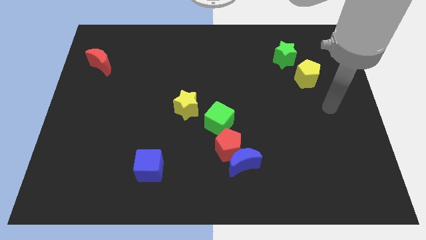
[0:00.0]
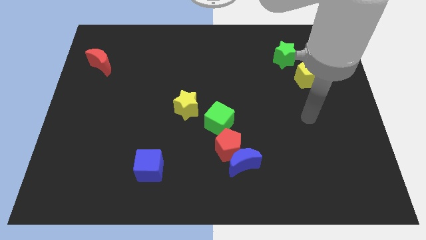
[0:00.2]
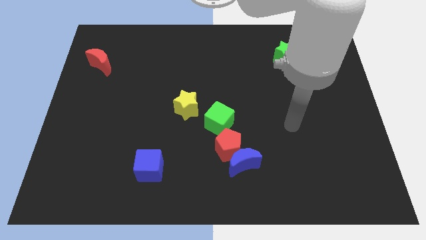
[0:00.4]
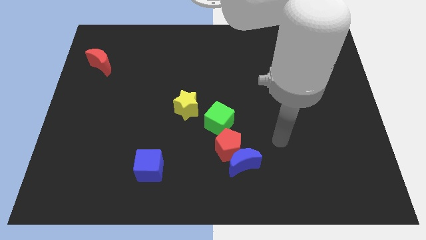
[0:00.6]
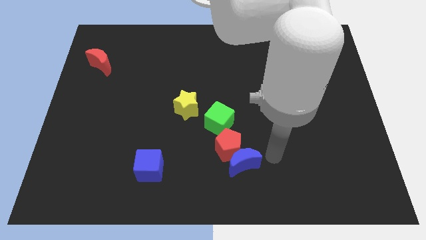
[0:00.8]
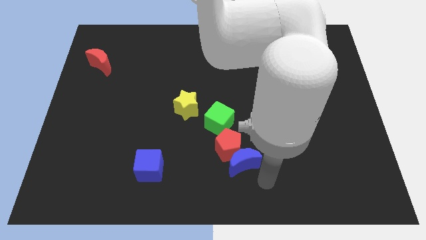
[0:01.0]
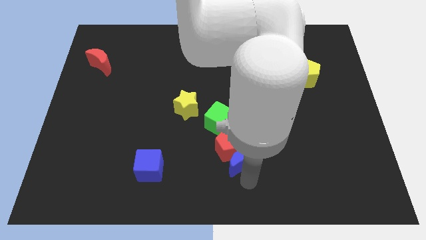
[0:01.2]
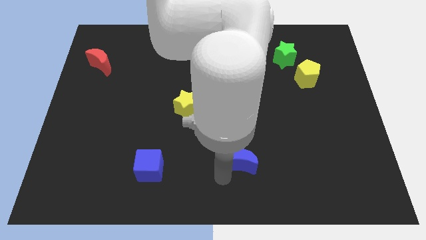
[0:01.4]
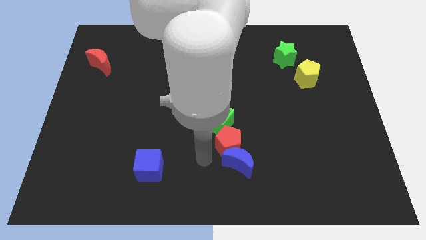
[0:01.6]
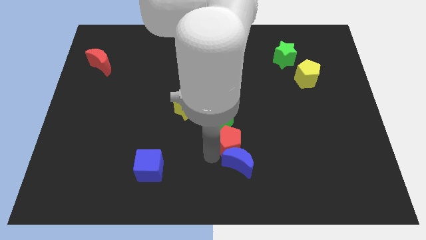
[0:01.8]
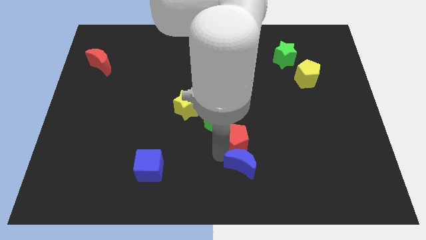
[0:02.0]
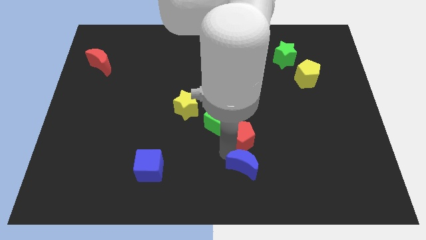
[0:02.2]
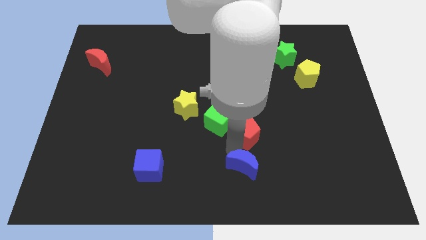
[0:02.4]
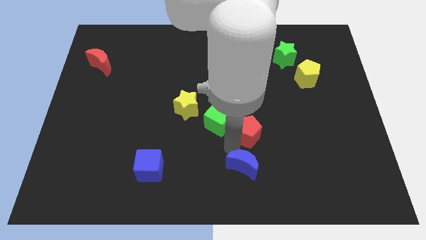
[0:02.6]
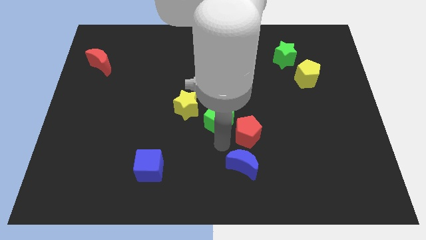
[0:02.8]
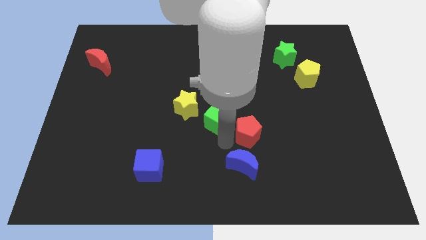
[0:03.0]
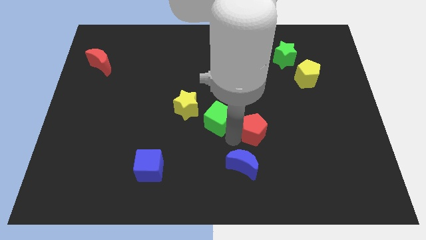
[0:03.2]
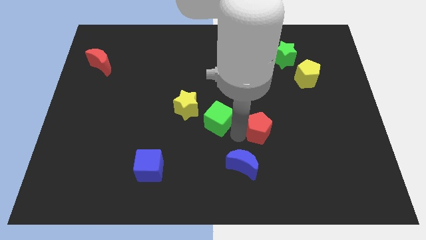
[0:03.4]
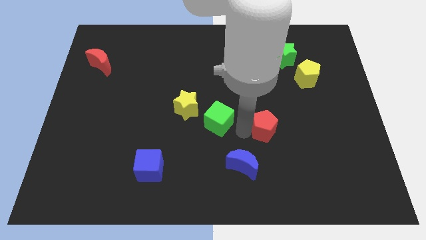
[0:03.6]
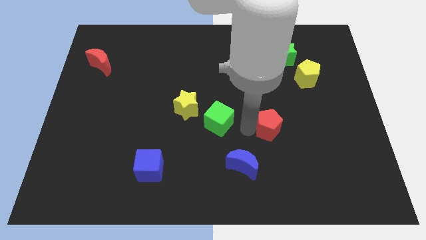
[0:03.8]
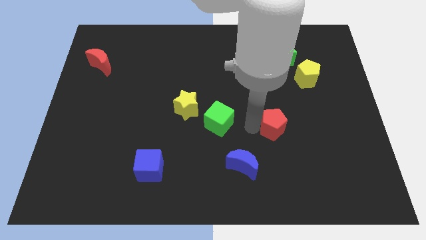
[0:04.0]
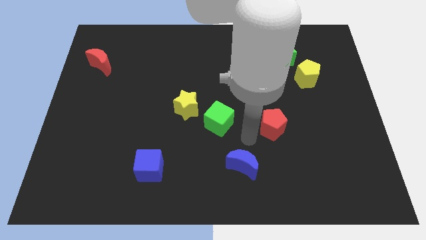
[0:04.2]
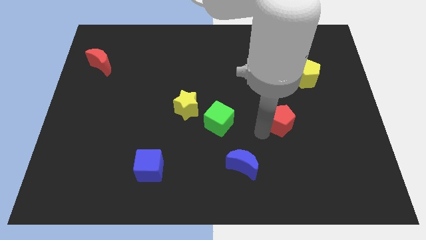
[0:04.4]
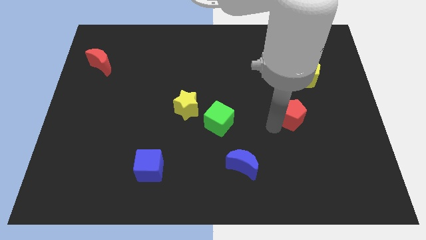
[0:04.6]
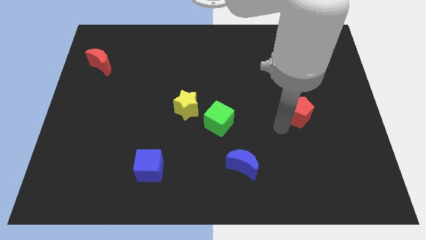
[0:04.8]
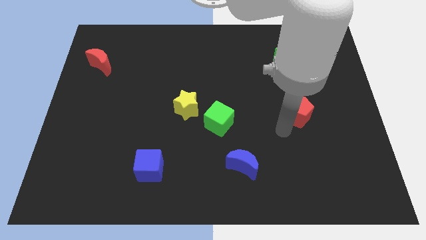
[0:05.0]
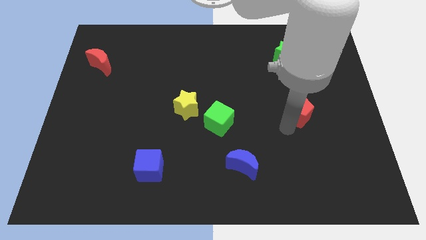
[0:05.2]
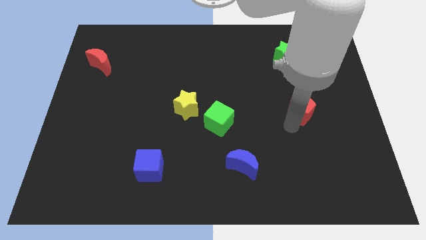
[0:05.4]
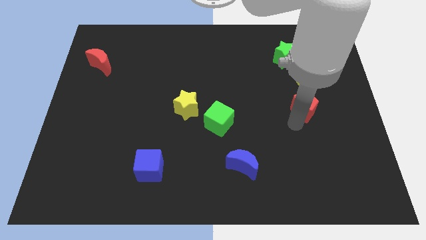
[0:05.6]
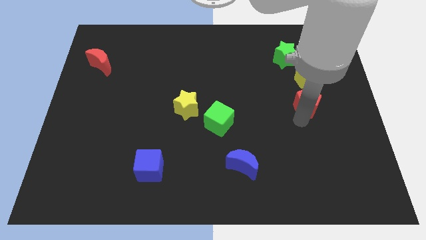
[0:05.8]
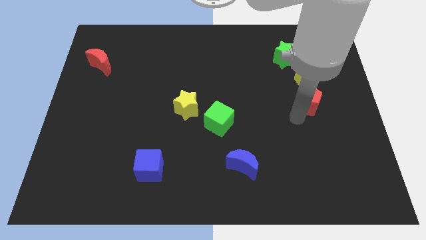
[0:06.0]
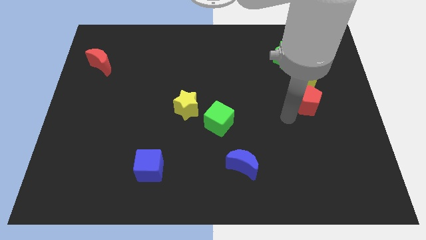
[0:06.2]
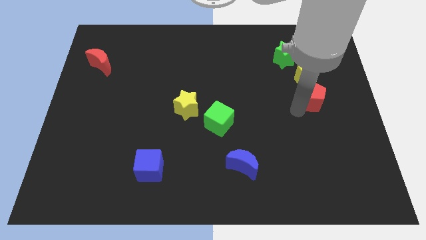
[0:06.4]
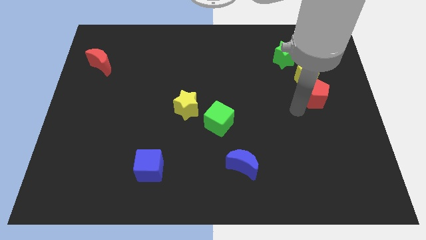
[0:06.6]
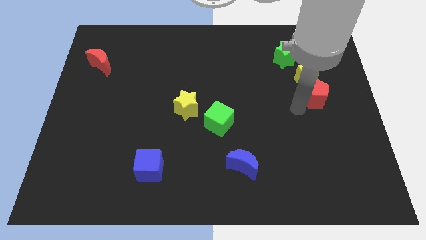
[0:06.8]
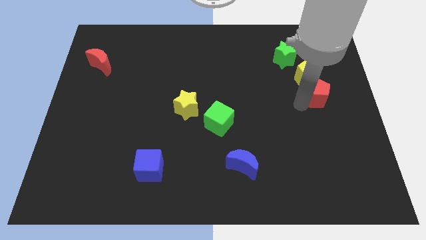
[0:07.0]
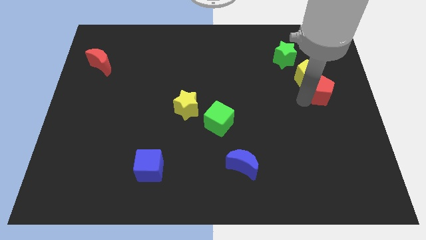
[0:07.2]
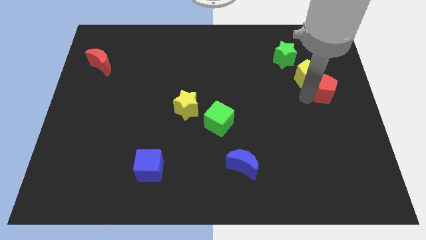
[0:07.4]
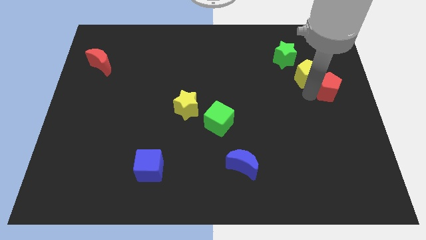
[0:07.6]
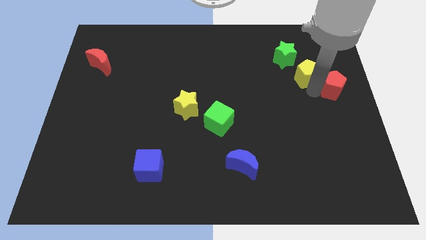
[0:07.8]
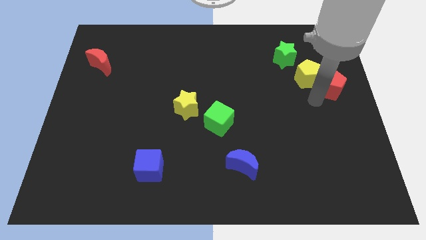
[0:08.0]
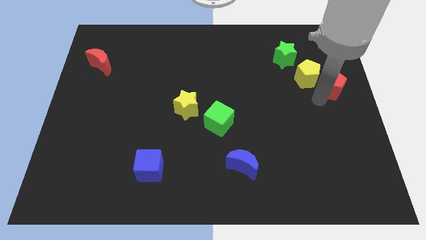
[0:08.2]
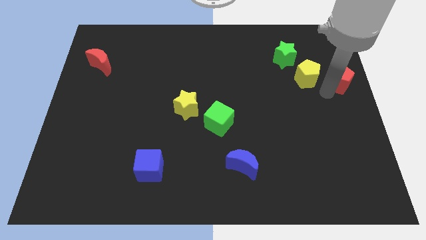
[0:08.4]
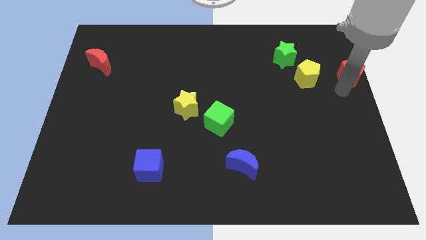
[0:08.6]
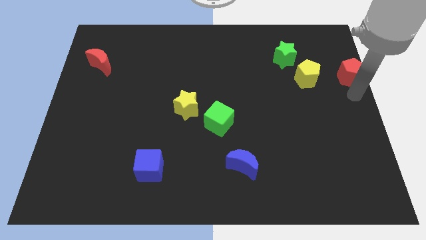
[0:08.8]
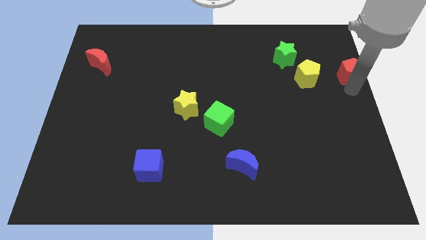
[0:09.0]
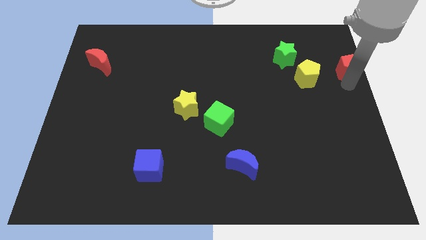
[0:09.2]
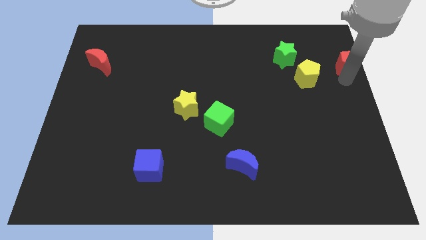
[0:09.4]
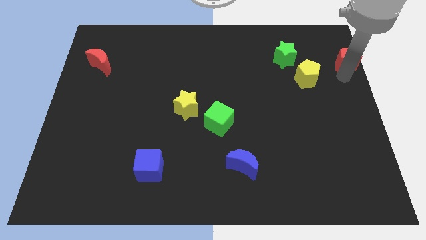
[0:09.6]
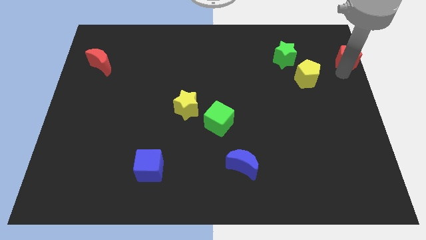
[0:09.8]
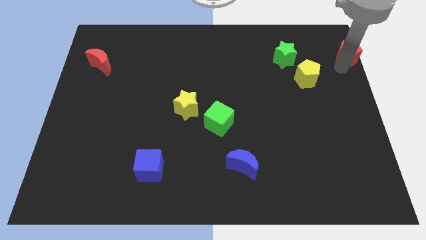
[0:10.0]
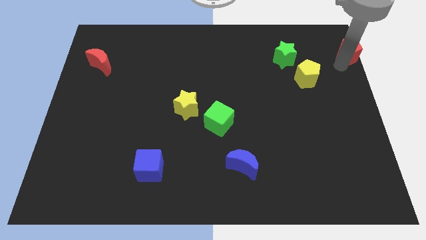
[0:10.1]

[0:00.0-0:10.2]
move the red pentagon to the upper right corner

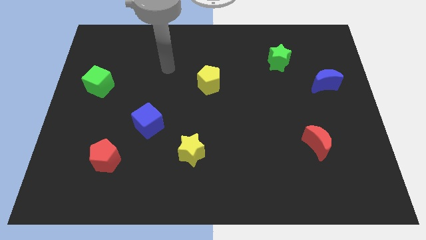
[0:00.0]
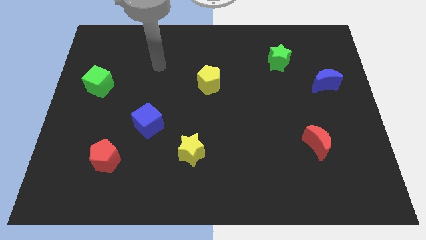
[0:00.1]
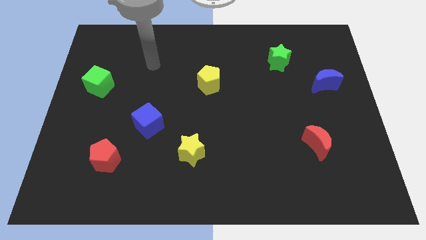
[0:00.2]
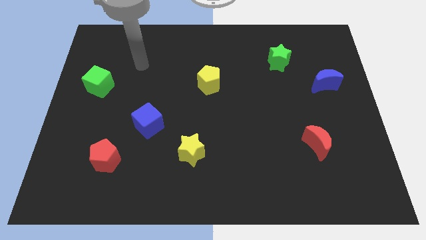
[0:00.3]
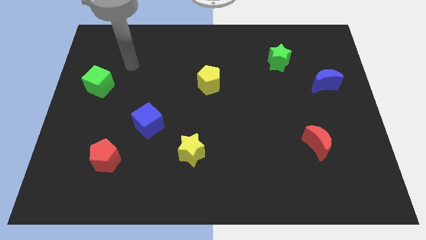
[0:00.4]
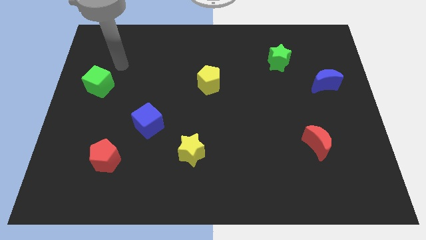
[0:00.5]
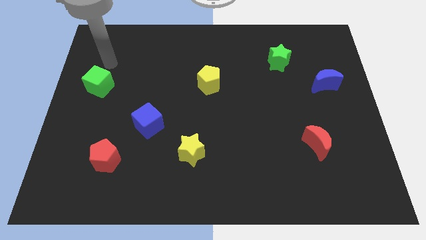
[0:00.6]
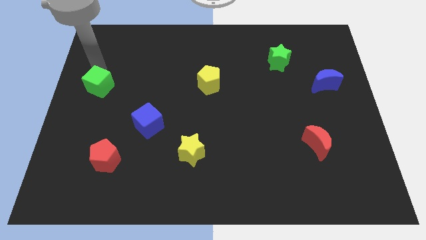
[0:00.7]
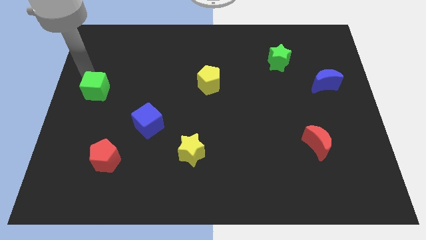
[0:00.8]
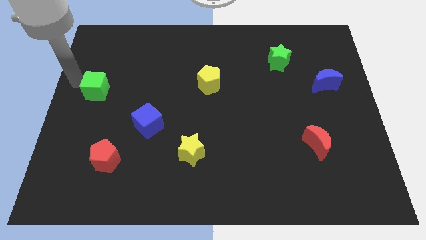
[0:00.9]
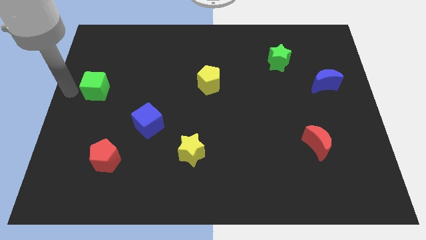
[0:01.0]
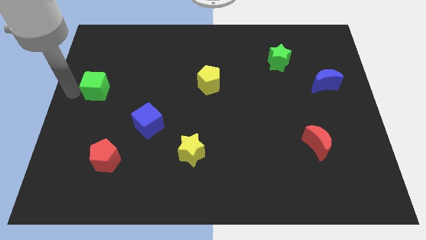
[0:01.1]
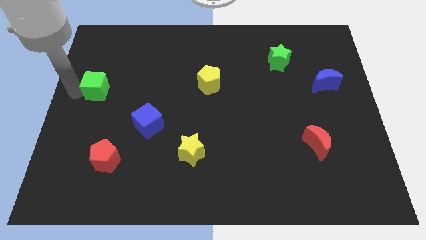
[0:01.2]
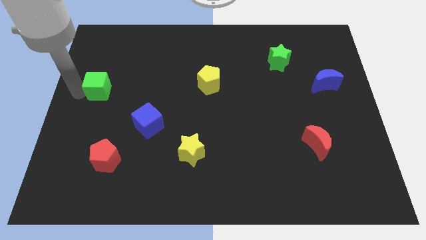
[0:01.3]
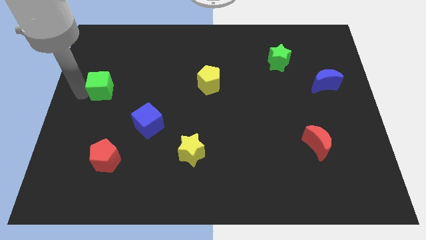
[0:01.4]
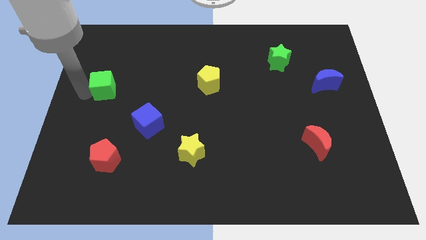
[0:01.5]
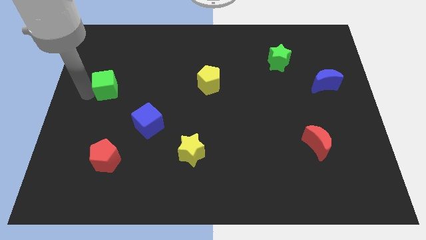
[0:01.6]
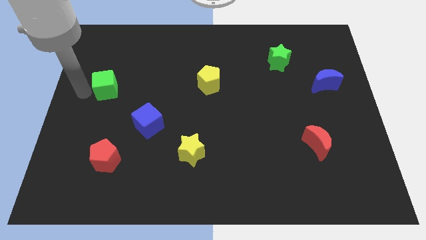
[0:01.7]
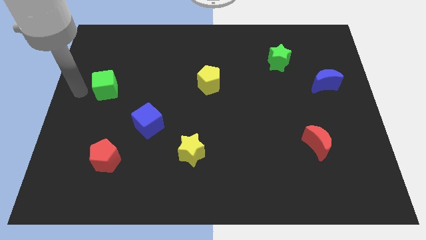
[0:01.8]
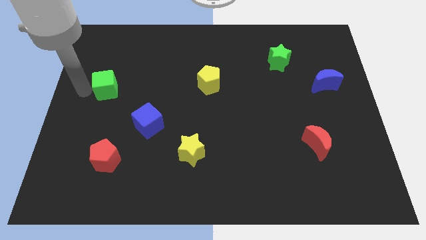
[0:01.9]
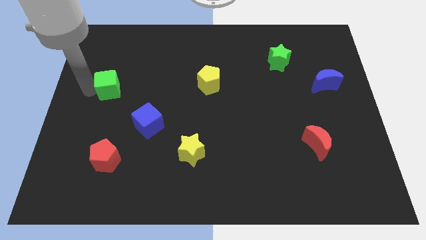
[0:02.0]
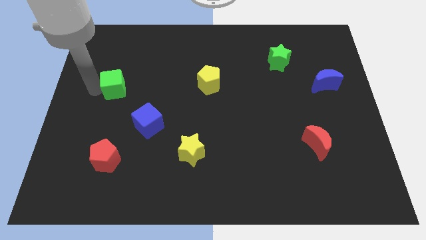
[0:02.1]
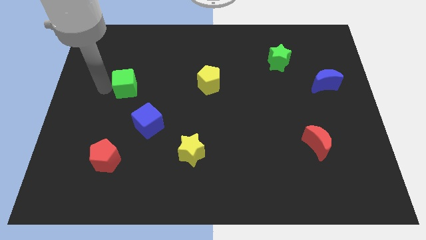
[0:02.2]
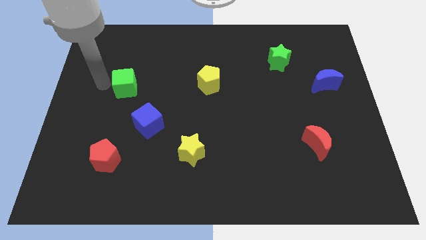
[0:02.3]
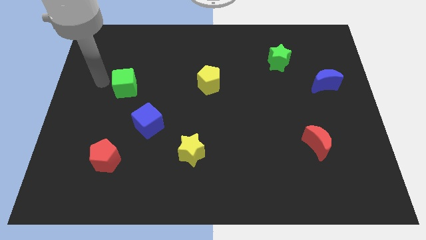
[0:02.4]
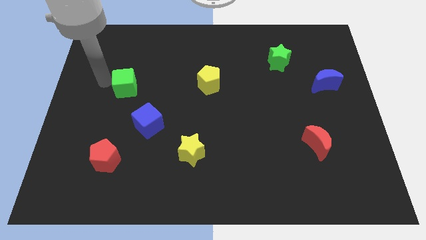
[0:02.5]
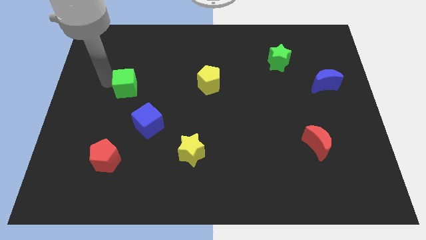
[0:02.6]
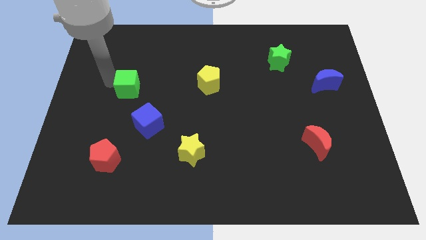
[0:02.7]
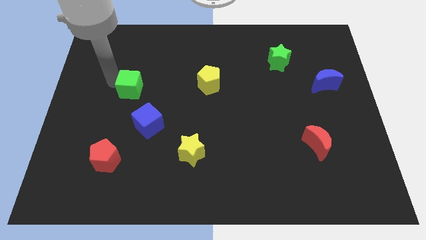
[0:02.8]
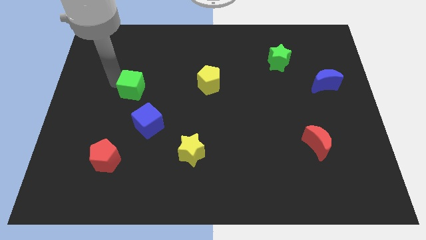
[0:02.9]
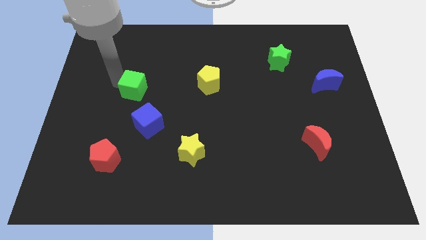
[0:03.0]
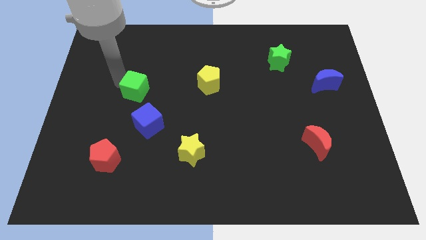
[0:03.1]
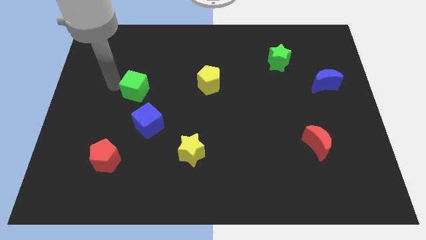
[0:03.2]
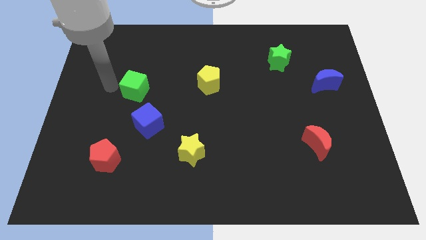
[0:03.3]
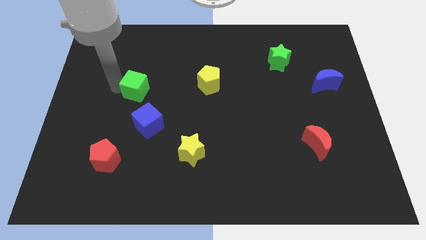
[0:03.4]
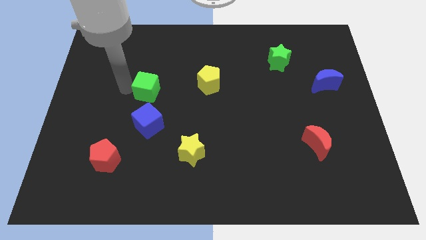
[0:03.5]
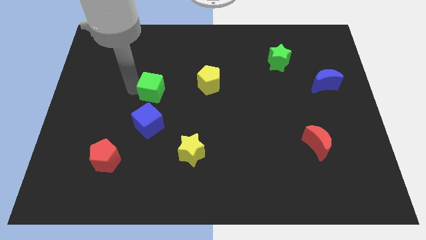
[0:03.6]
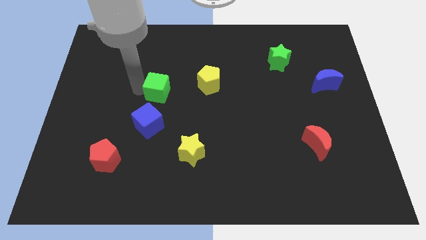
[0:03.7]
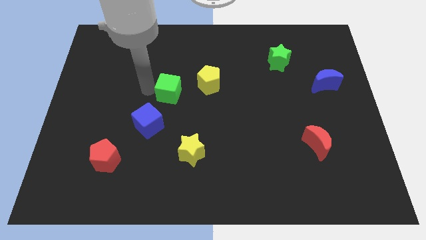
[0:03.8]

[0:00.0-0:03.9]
put the green cube to the center of the board
